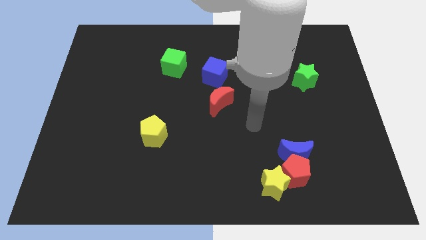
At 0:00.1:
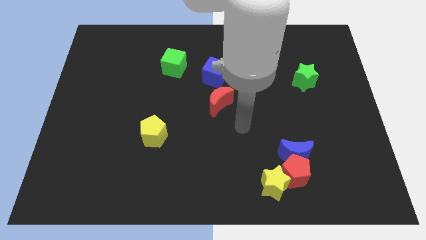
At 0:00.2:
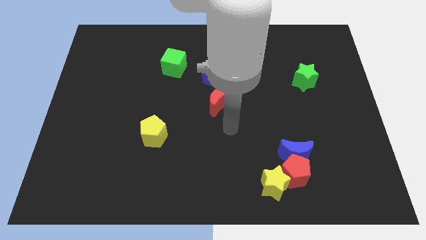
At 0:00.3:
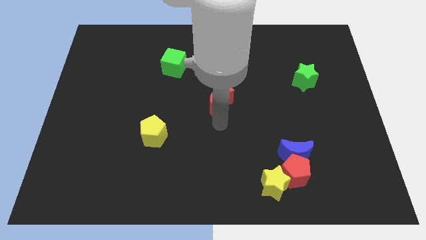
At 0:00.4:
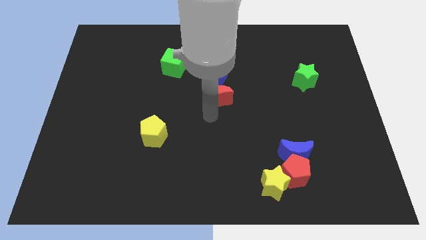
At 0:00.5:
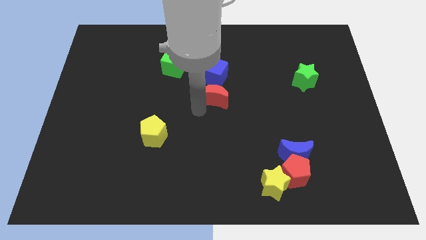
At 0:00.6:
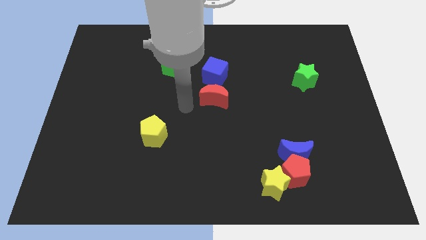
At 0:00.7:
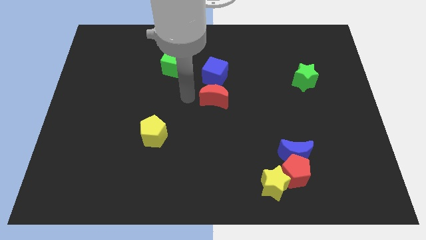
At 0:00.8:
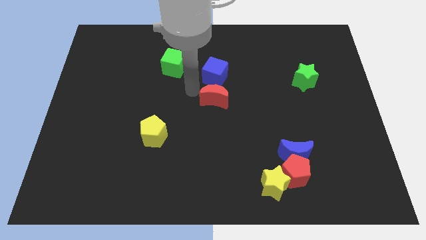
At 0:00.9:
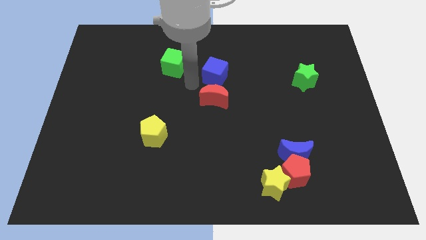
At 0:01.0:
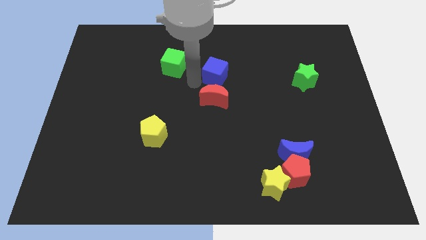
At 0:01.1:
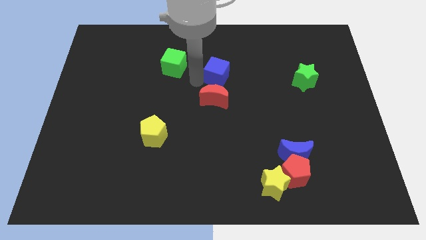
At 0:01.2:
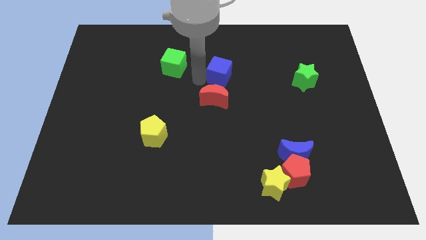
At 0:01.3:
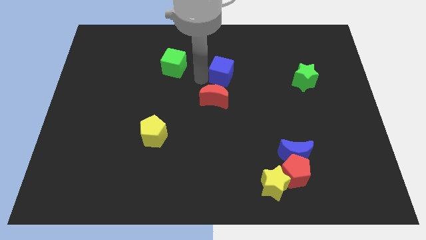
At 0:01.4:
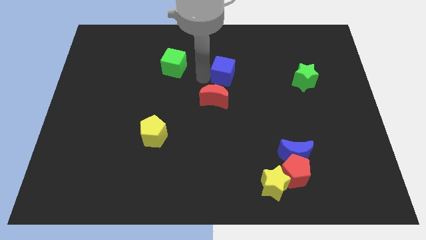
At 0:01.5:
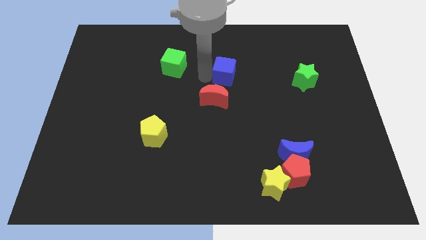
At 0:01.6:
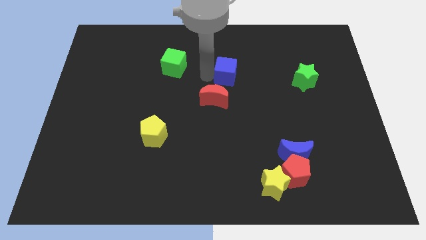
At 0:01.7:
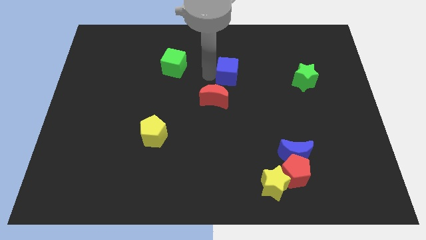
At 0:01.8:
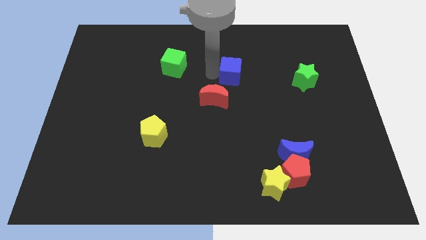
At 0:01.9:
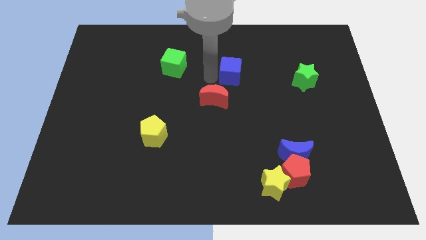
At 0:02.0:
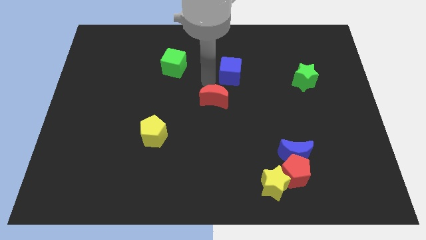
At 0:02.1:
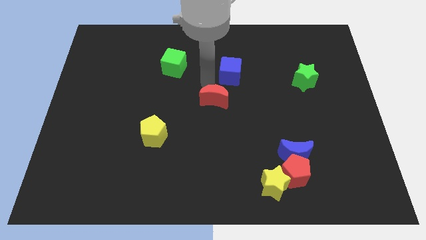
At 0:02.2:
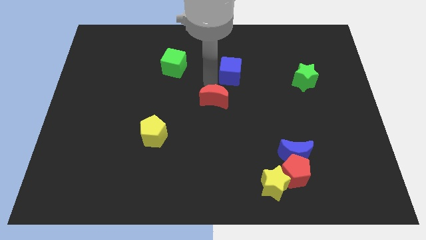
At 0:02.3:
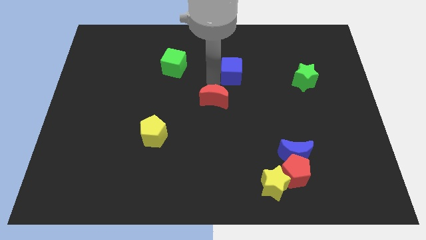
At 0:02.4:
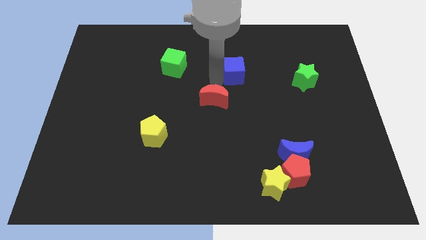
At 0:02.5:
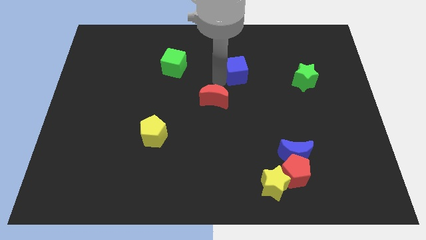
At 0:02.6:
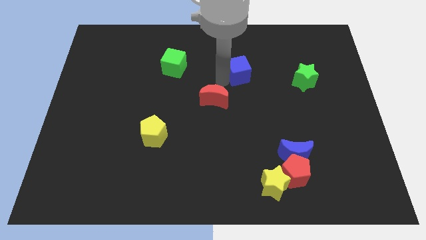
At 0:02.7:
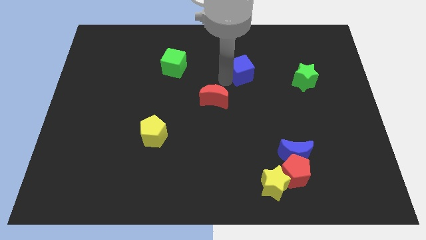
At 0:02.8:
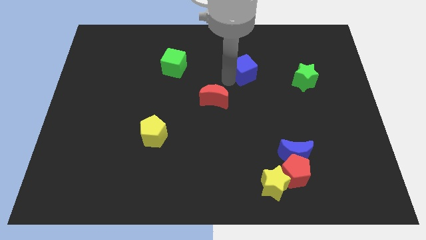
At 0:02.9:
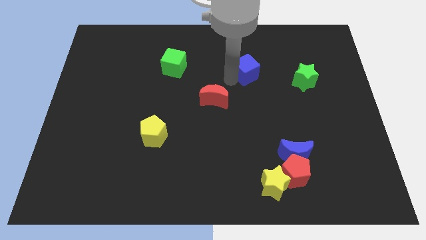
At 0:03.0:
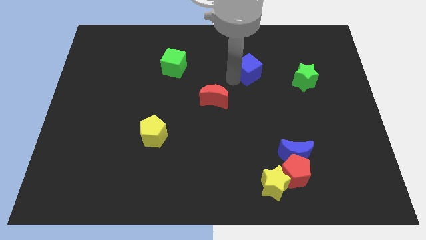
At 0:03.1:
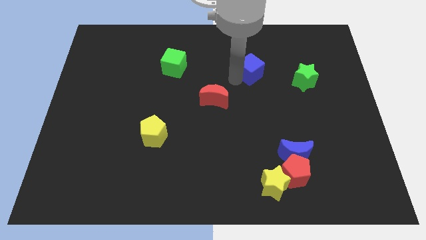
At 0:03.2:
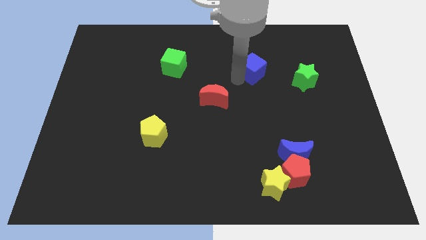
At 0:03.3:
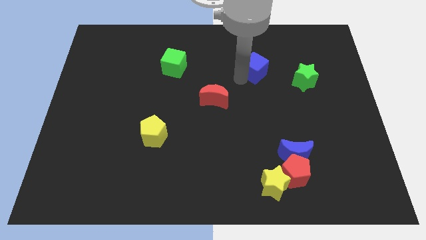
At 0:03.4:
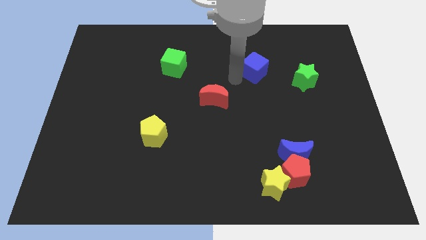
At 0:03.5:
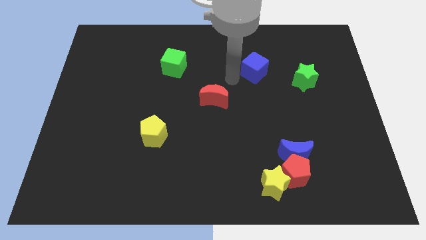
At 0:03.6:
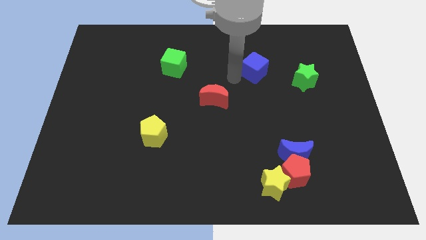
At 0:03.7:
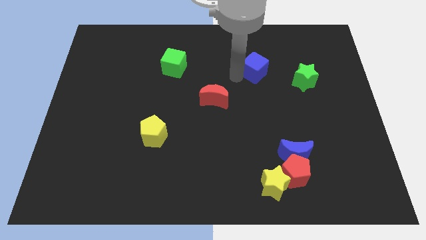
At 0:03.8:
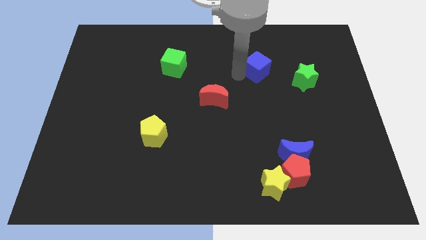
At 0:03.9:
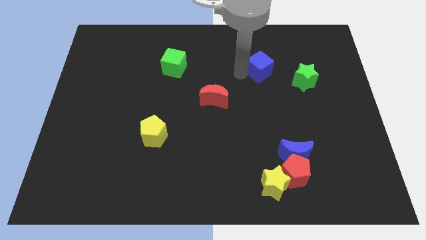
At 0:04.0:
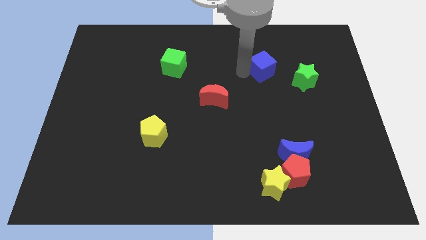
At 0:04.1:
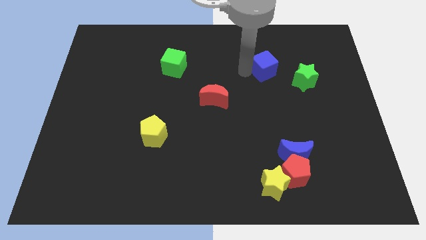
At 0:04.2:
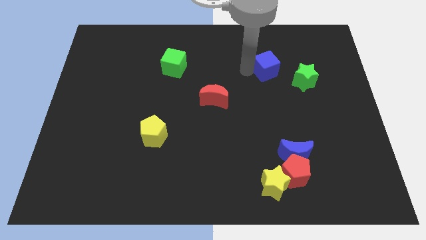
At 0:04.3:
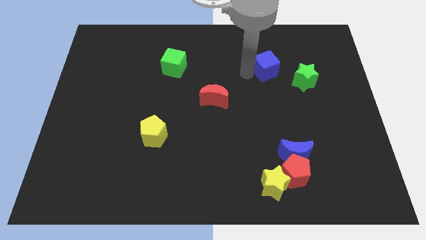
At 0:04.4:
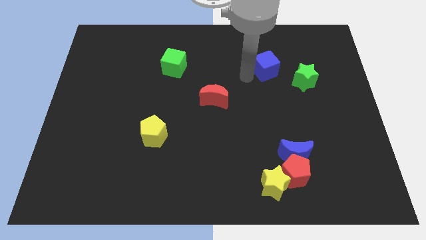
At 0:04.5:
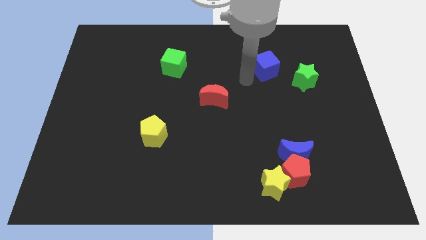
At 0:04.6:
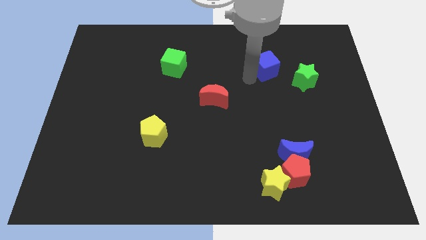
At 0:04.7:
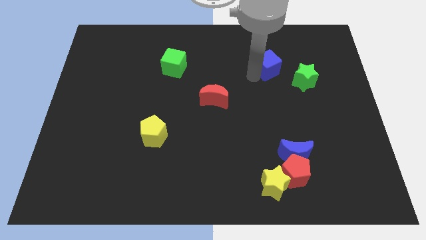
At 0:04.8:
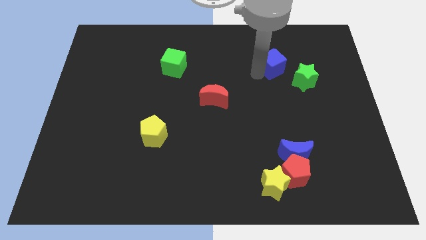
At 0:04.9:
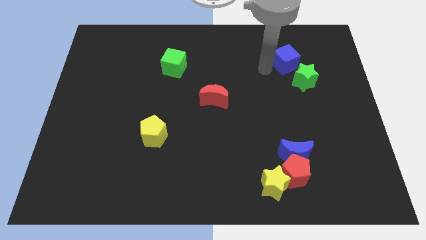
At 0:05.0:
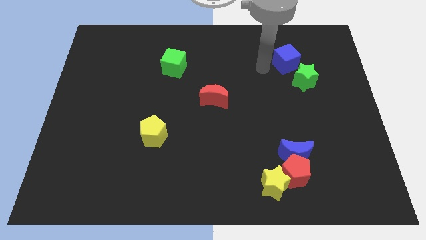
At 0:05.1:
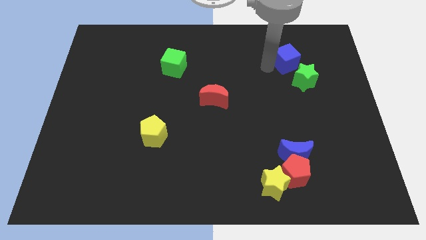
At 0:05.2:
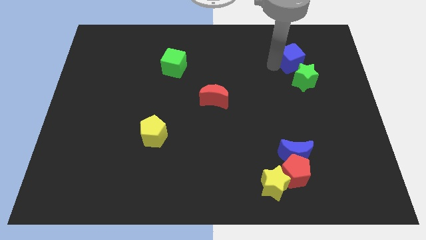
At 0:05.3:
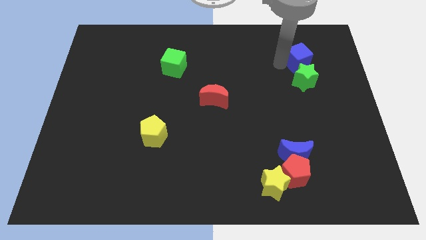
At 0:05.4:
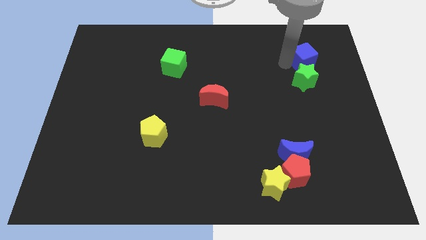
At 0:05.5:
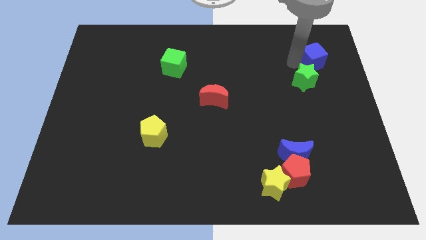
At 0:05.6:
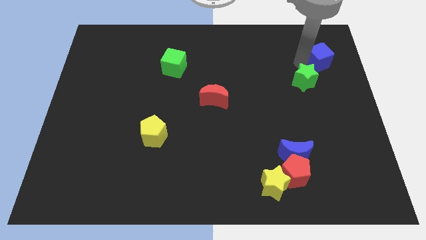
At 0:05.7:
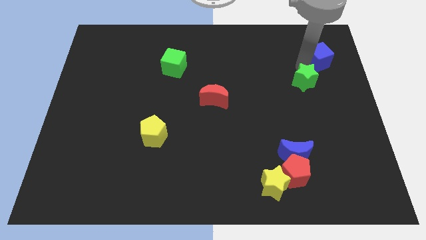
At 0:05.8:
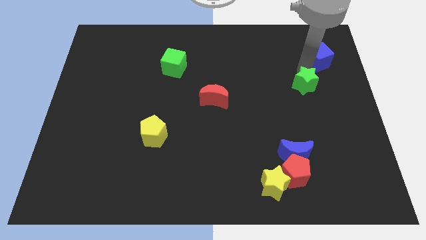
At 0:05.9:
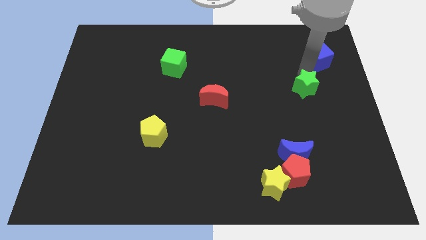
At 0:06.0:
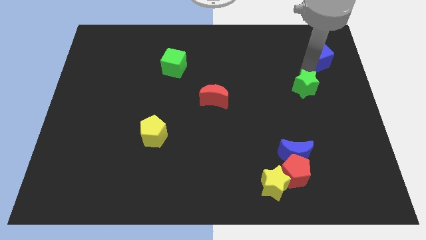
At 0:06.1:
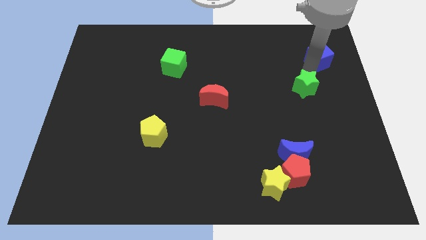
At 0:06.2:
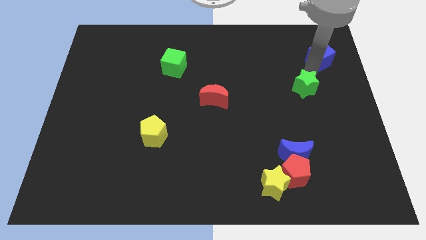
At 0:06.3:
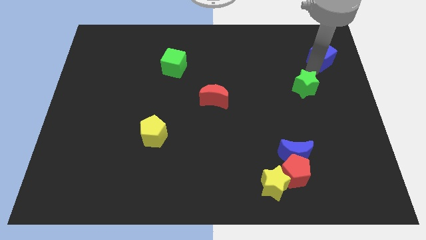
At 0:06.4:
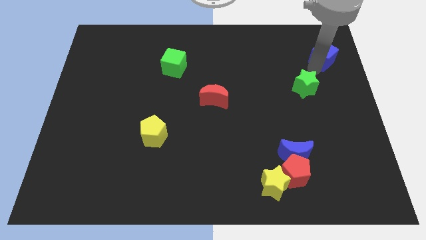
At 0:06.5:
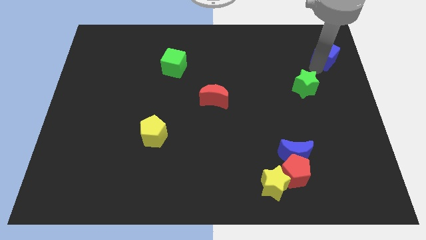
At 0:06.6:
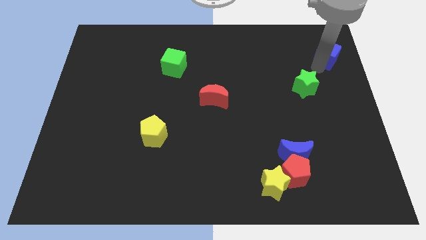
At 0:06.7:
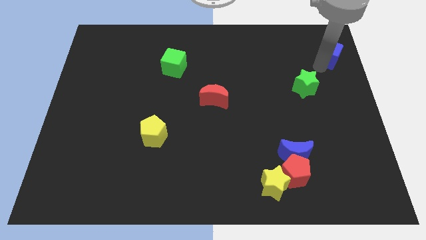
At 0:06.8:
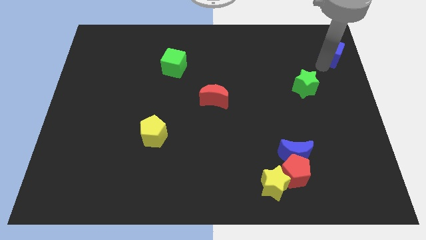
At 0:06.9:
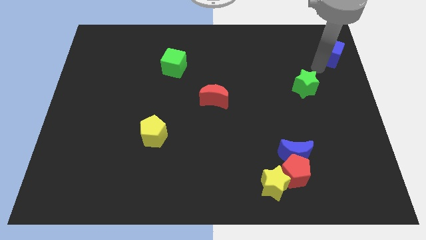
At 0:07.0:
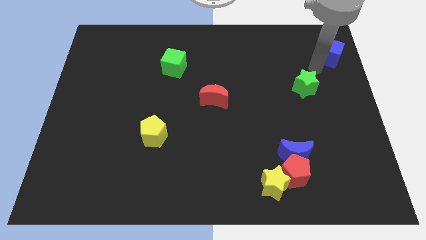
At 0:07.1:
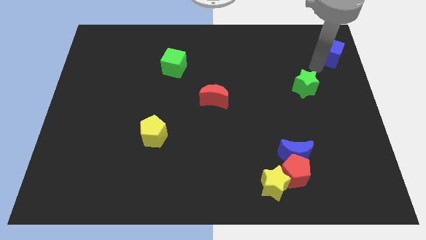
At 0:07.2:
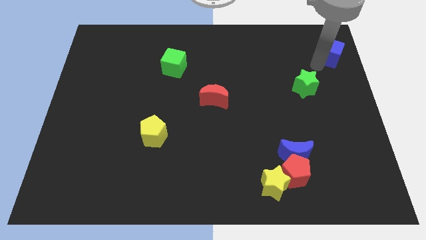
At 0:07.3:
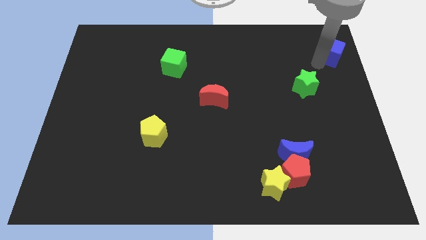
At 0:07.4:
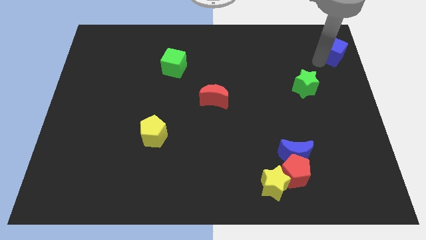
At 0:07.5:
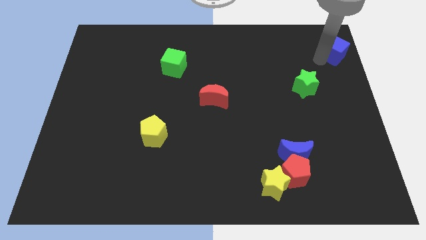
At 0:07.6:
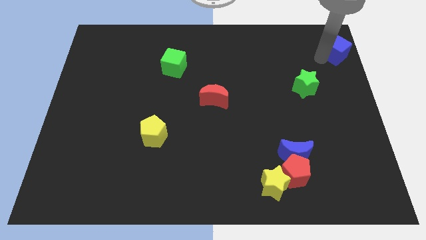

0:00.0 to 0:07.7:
slide the blue cube to the top right
